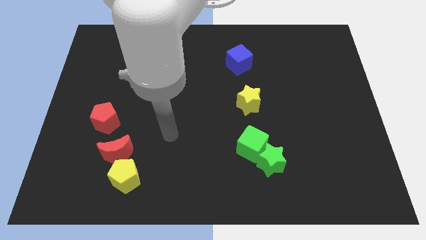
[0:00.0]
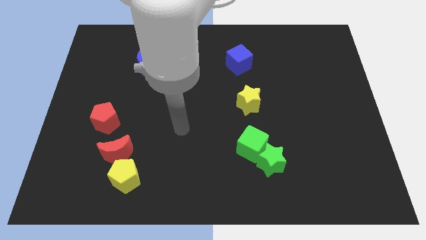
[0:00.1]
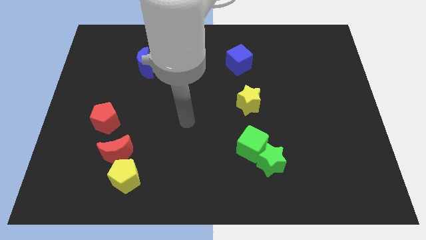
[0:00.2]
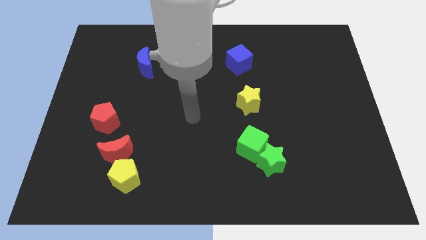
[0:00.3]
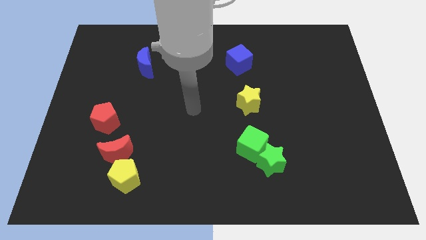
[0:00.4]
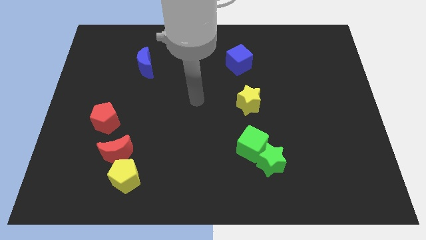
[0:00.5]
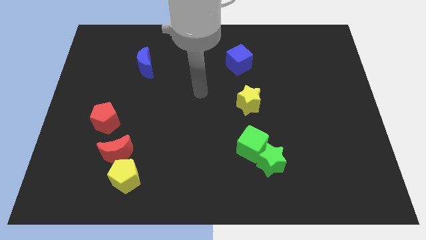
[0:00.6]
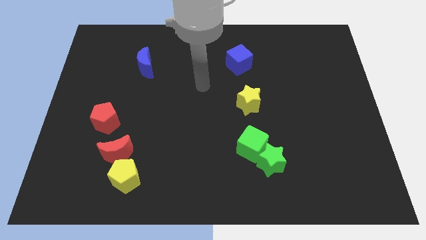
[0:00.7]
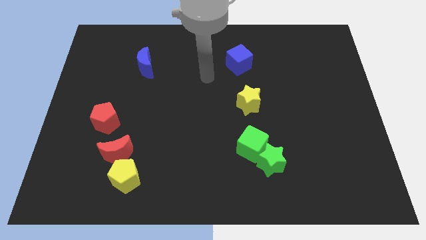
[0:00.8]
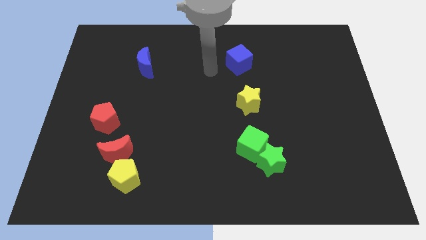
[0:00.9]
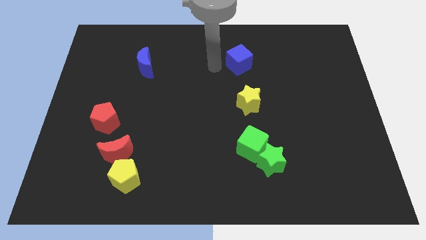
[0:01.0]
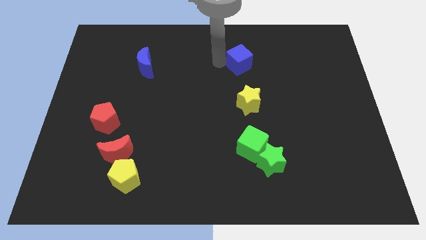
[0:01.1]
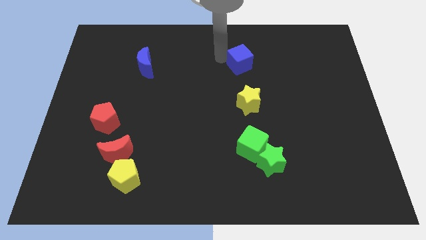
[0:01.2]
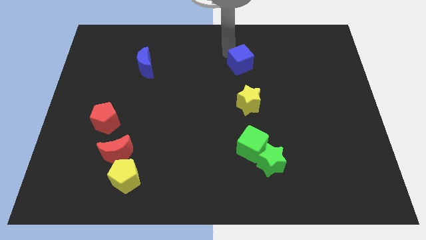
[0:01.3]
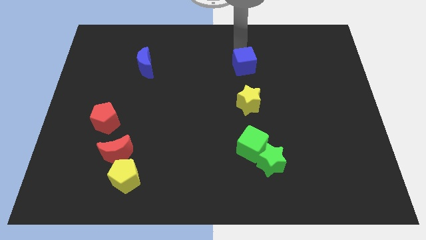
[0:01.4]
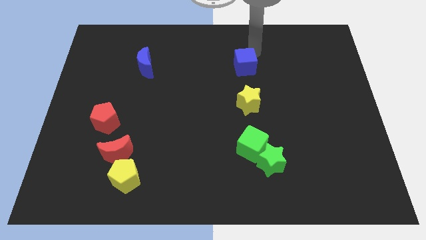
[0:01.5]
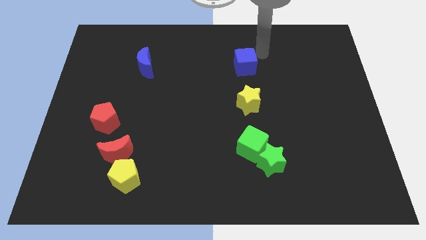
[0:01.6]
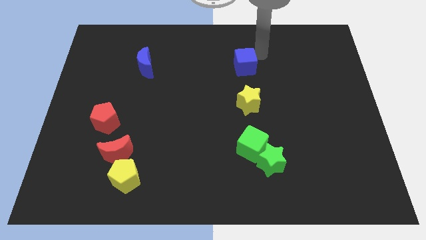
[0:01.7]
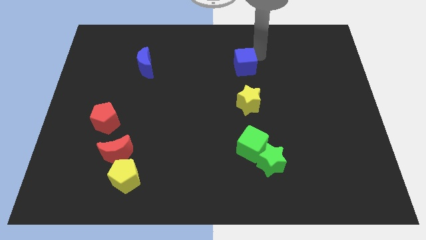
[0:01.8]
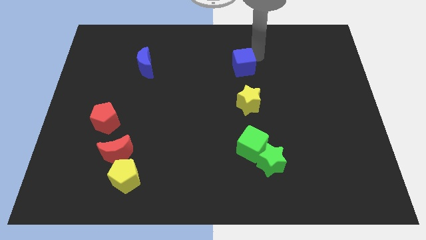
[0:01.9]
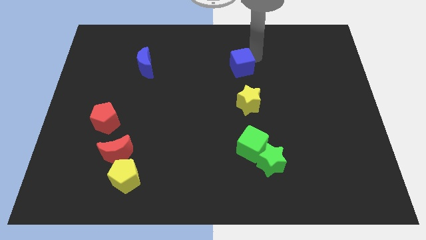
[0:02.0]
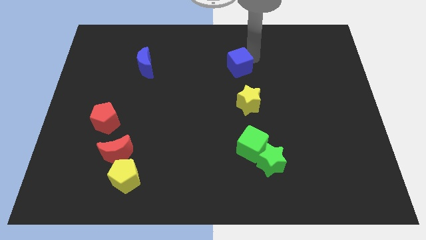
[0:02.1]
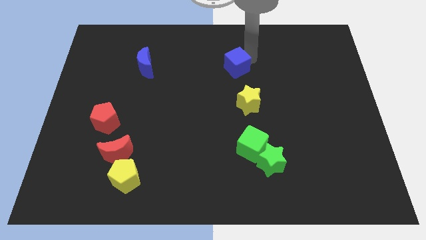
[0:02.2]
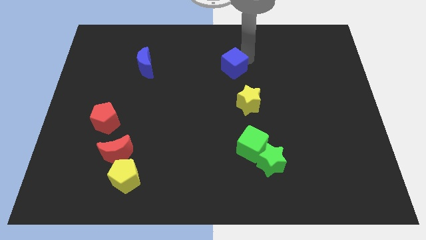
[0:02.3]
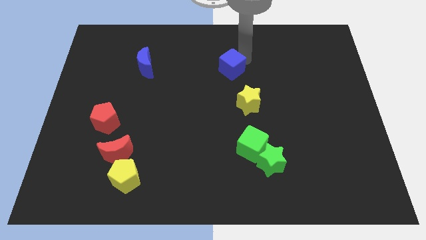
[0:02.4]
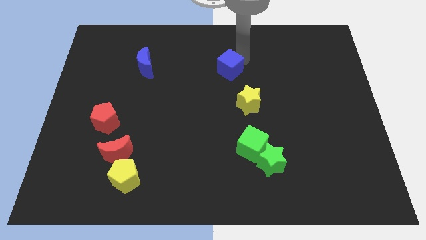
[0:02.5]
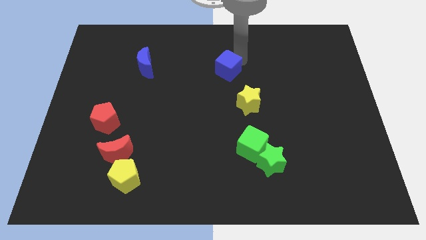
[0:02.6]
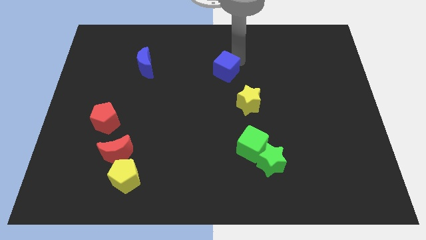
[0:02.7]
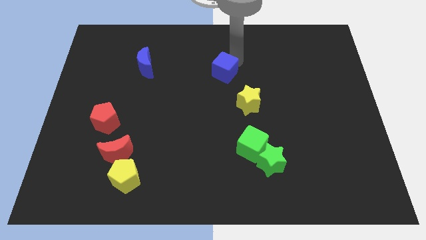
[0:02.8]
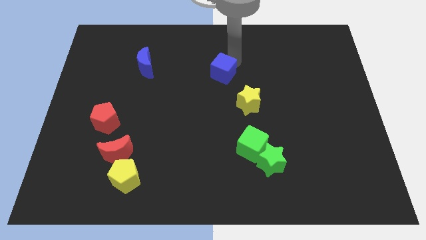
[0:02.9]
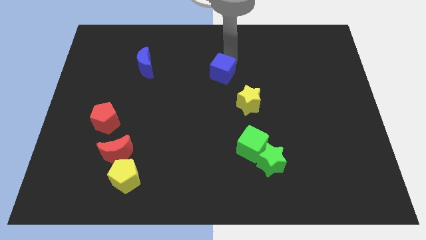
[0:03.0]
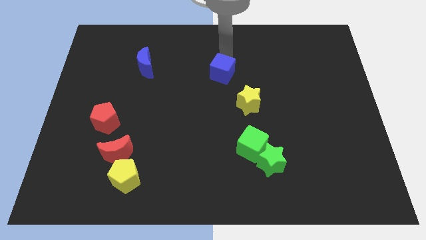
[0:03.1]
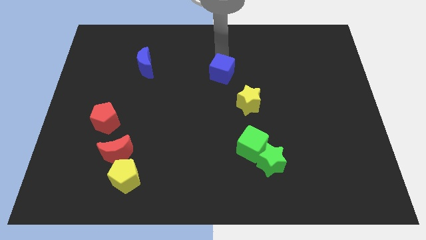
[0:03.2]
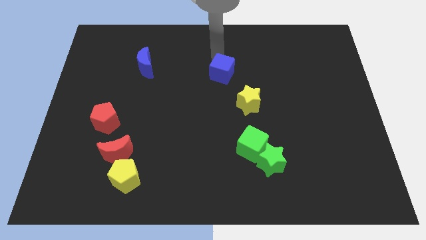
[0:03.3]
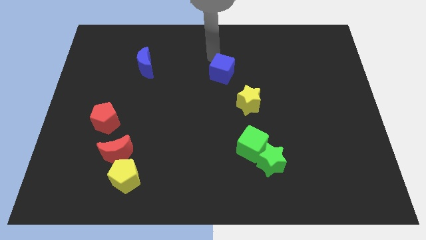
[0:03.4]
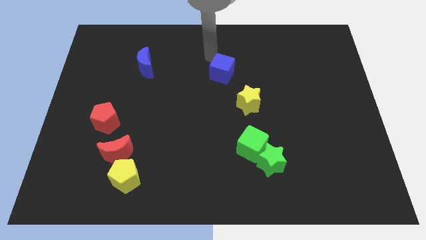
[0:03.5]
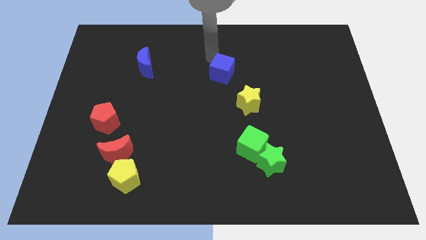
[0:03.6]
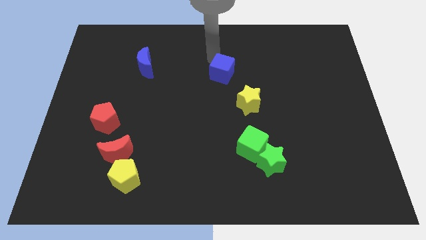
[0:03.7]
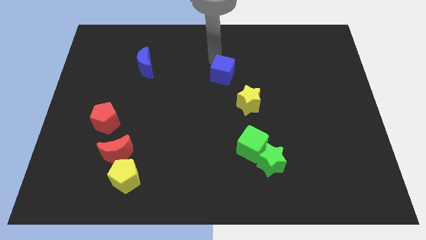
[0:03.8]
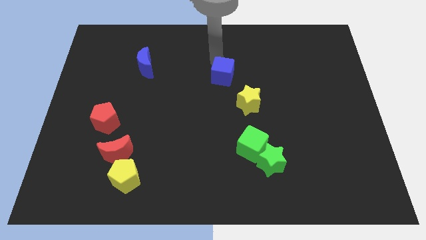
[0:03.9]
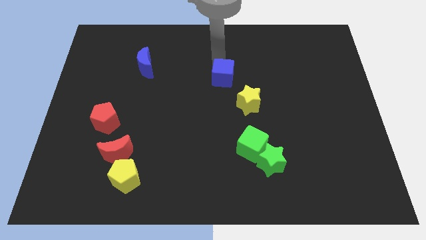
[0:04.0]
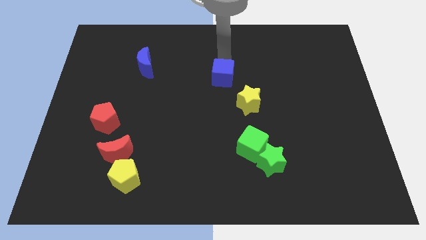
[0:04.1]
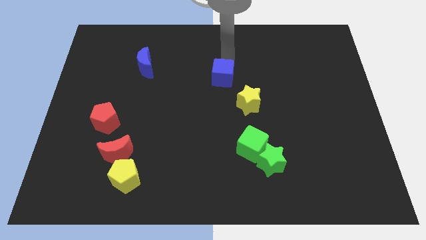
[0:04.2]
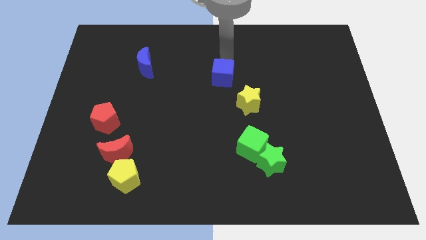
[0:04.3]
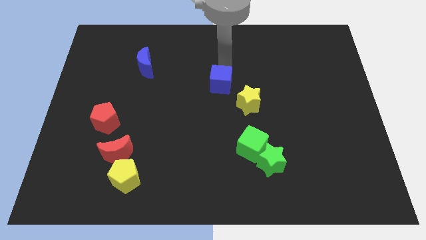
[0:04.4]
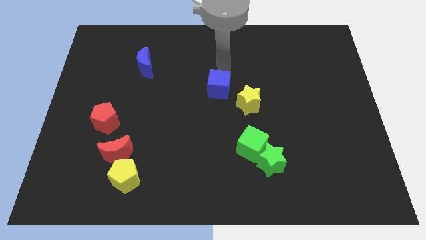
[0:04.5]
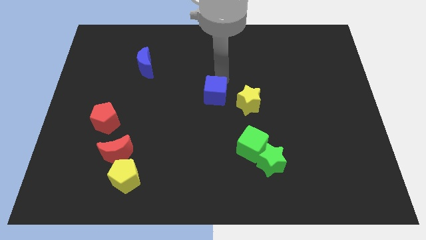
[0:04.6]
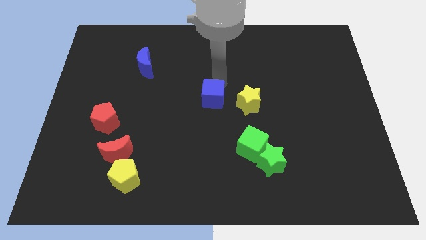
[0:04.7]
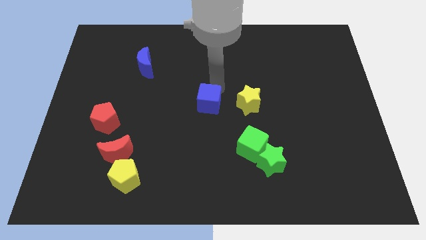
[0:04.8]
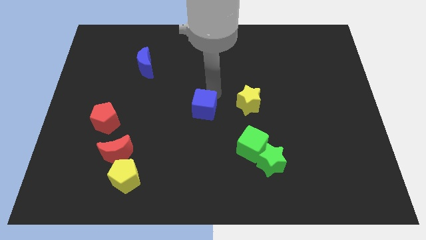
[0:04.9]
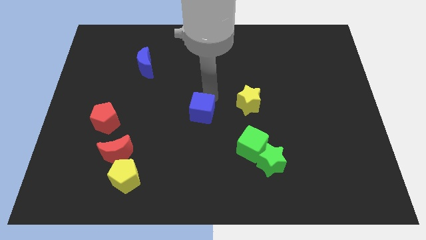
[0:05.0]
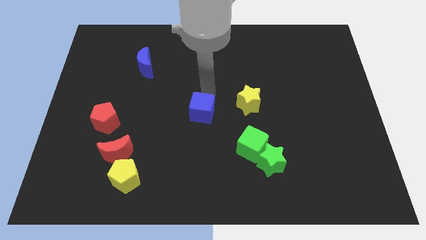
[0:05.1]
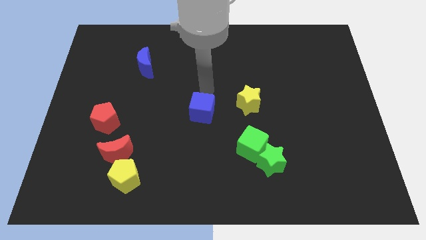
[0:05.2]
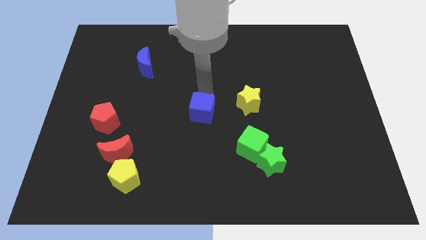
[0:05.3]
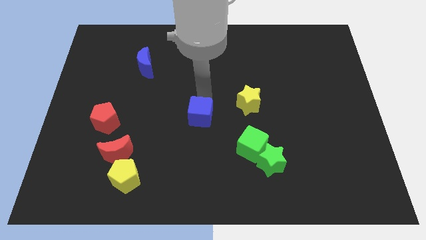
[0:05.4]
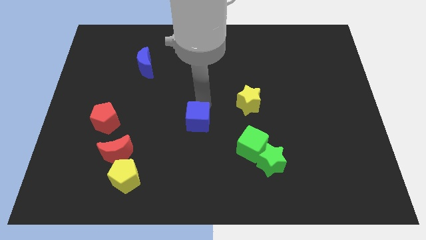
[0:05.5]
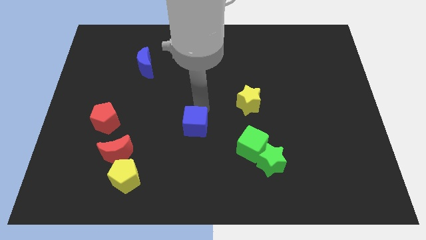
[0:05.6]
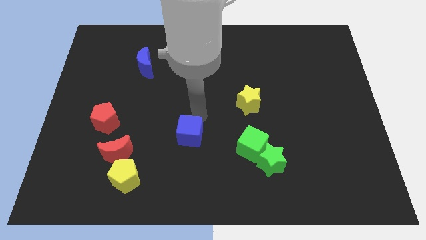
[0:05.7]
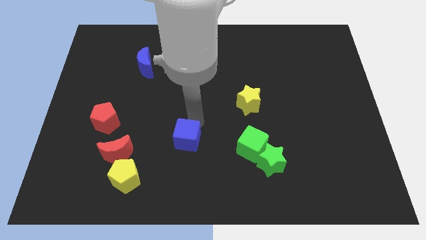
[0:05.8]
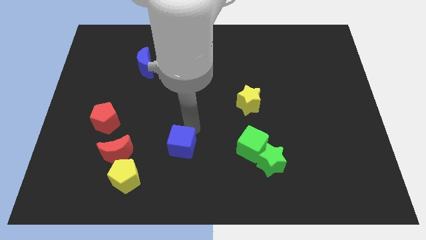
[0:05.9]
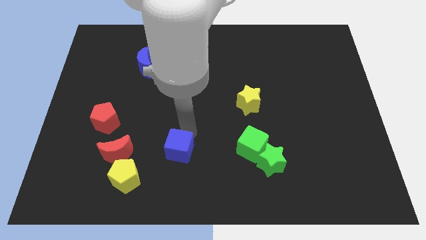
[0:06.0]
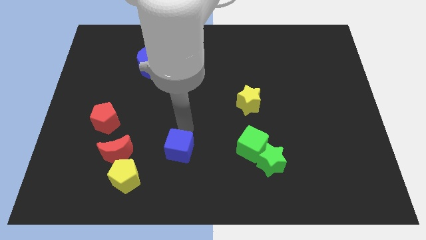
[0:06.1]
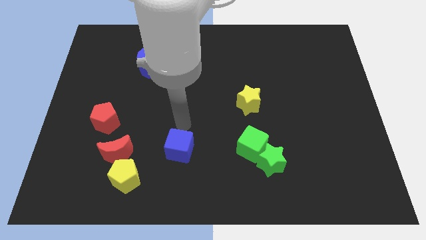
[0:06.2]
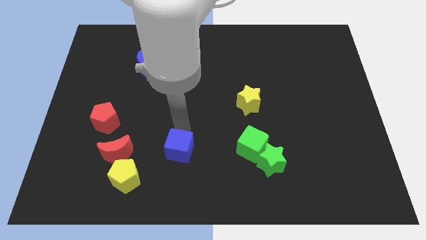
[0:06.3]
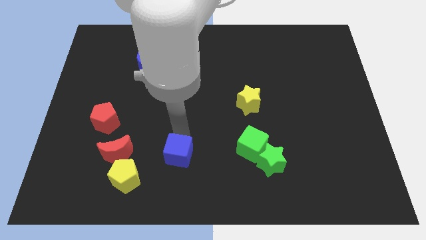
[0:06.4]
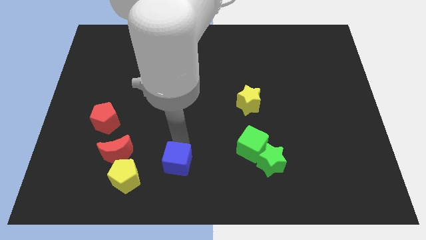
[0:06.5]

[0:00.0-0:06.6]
move the blue cube right of the yellow pentagon
